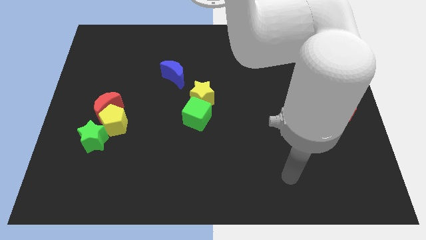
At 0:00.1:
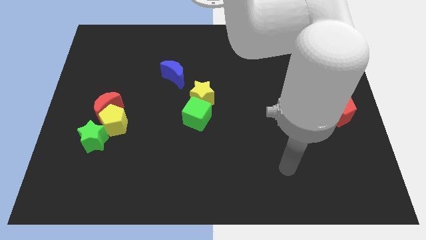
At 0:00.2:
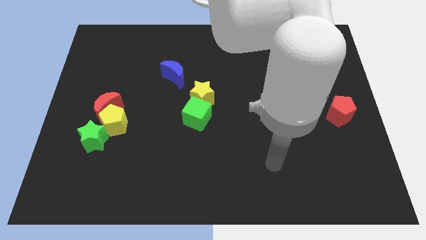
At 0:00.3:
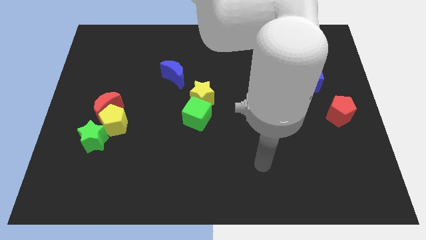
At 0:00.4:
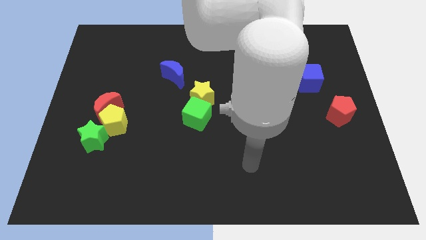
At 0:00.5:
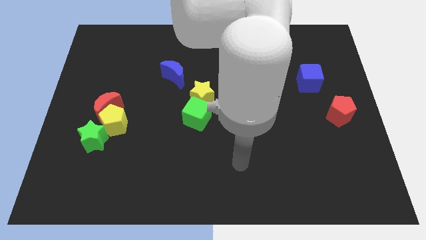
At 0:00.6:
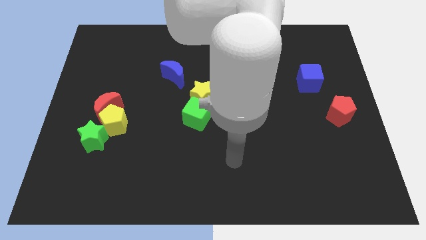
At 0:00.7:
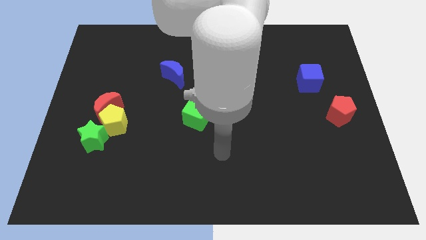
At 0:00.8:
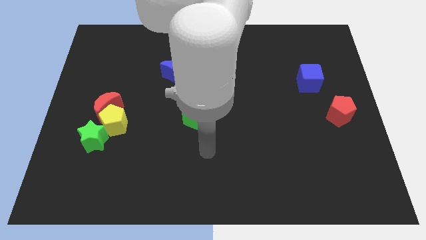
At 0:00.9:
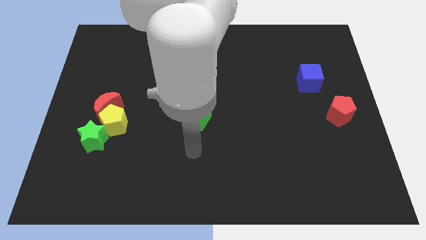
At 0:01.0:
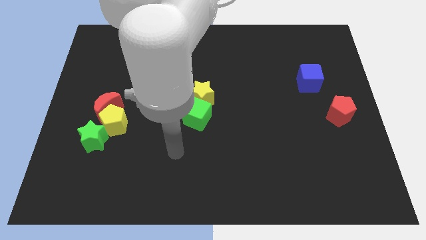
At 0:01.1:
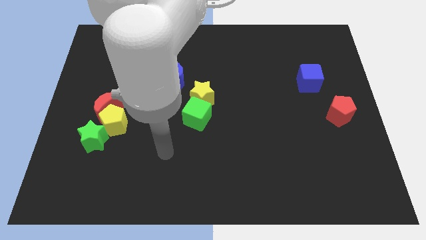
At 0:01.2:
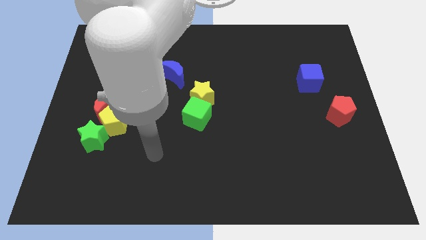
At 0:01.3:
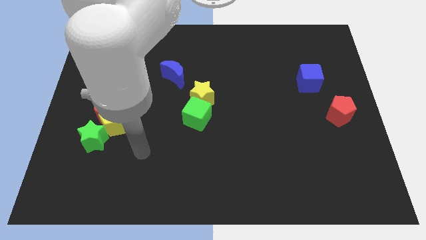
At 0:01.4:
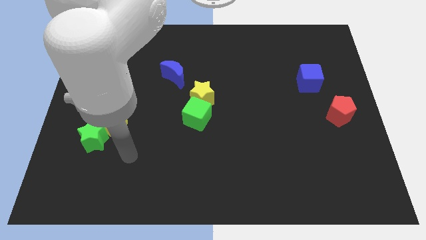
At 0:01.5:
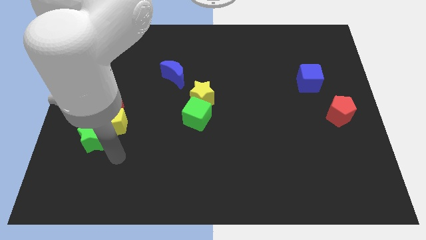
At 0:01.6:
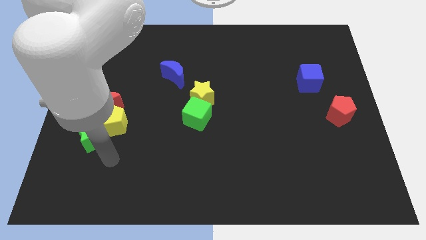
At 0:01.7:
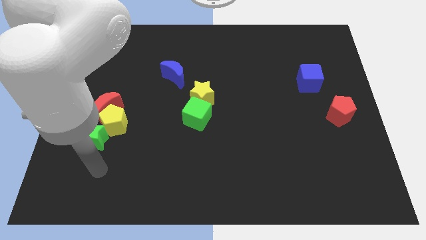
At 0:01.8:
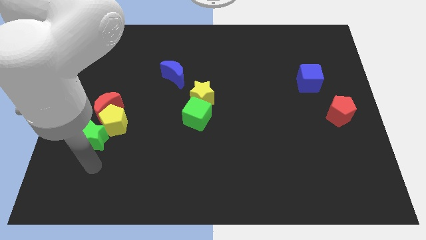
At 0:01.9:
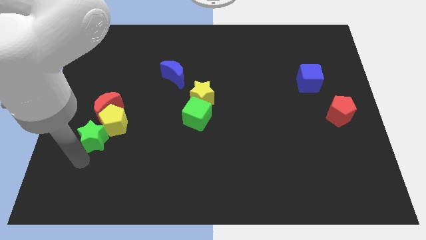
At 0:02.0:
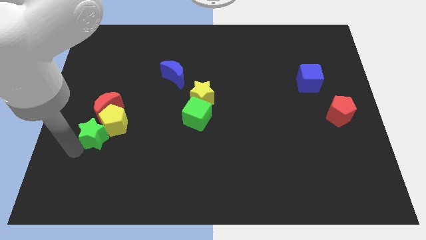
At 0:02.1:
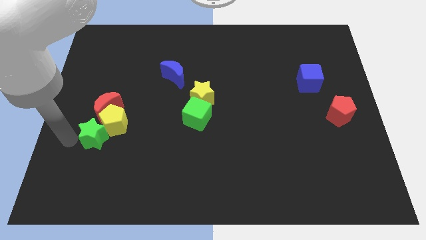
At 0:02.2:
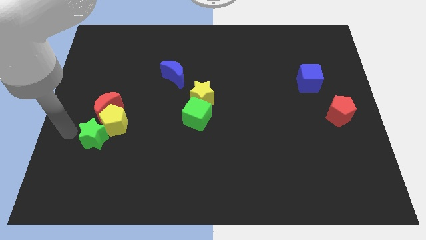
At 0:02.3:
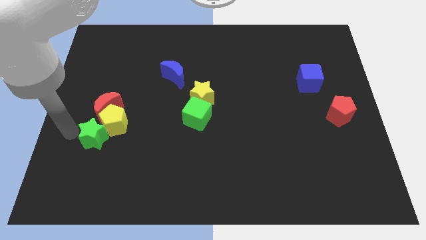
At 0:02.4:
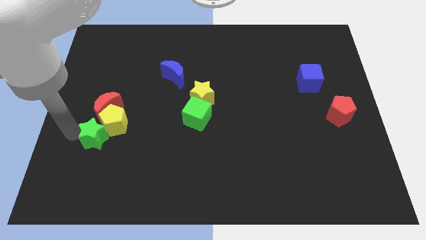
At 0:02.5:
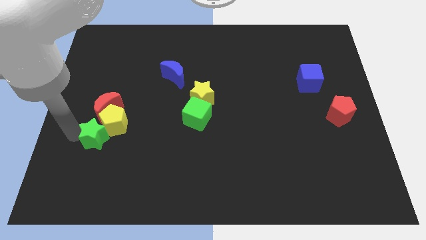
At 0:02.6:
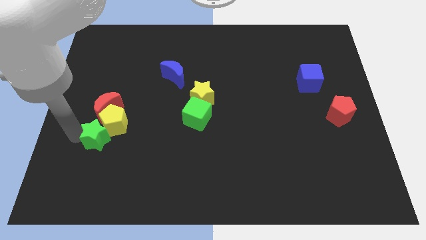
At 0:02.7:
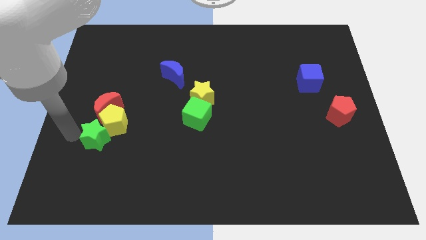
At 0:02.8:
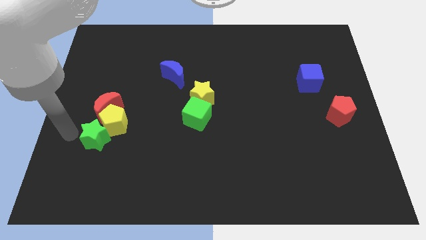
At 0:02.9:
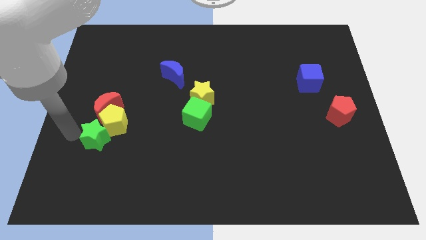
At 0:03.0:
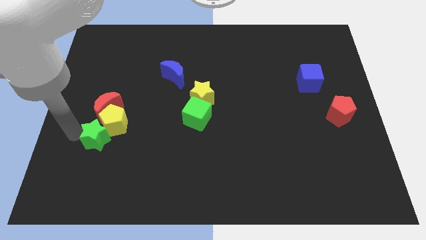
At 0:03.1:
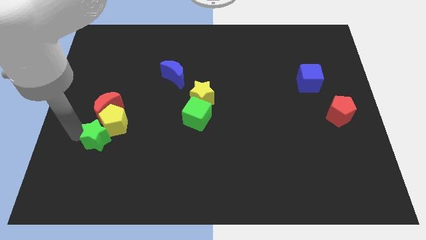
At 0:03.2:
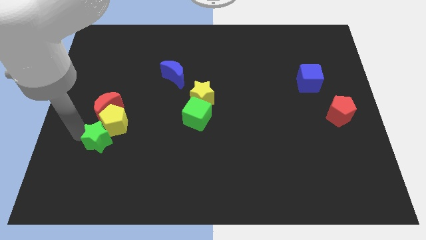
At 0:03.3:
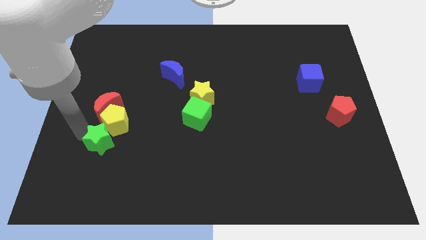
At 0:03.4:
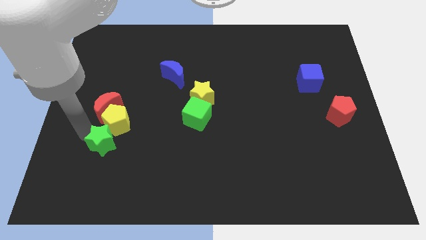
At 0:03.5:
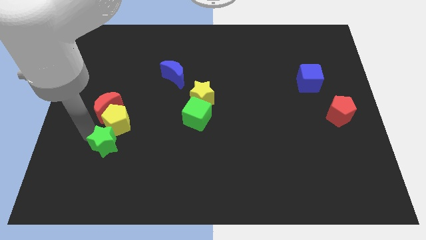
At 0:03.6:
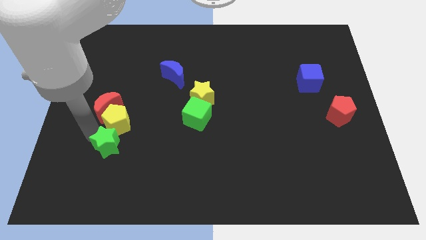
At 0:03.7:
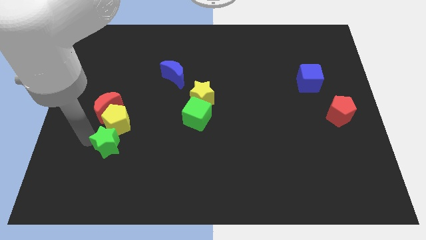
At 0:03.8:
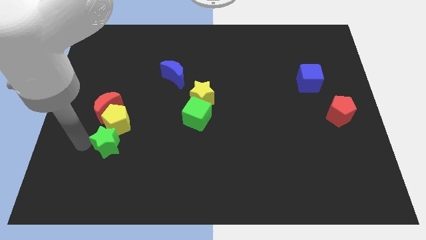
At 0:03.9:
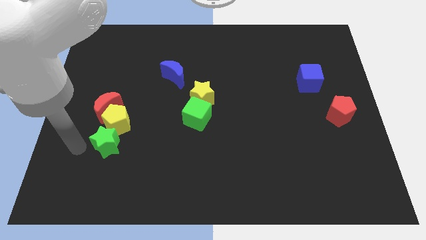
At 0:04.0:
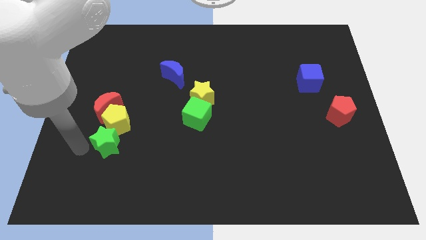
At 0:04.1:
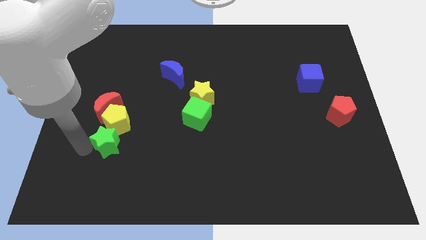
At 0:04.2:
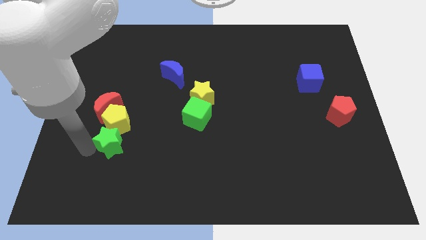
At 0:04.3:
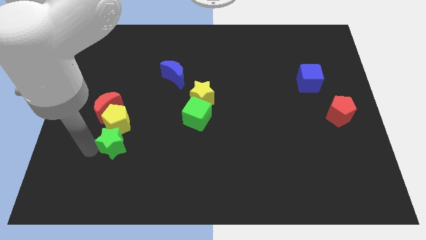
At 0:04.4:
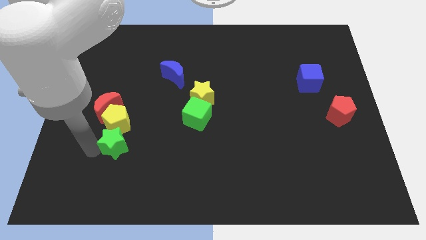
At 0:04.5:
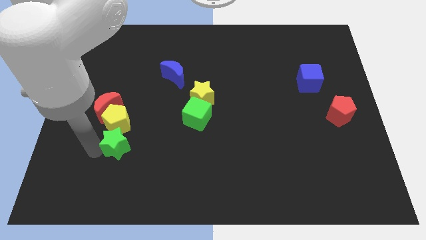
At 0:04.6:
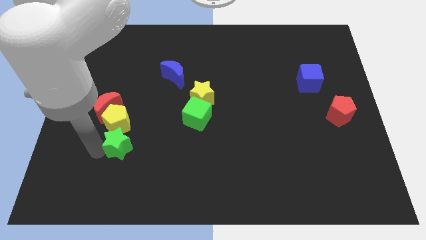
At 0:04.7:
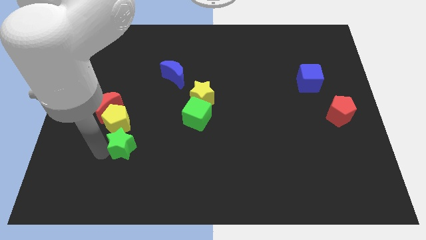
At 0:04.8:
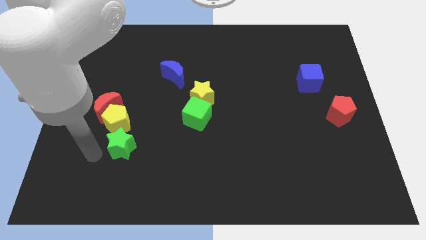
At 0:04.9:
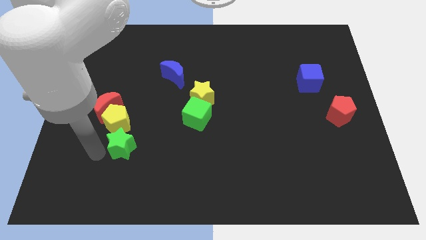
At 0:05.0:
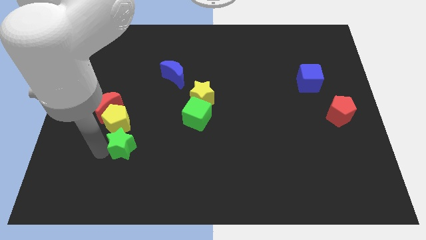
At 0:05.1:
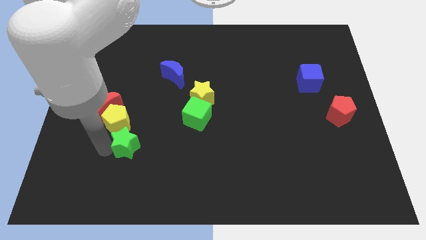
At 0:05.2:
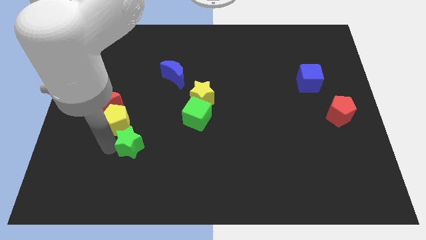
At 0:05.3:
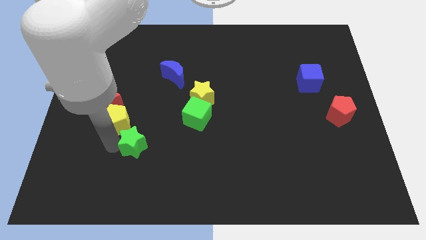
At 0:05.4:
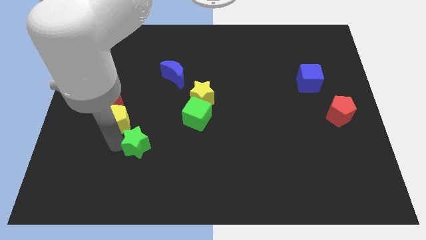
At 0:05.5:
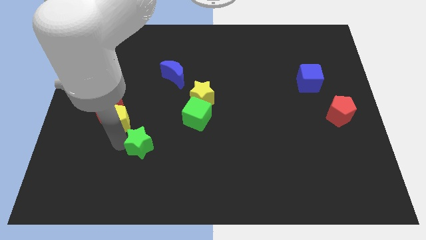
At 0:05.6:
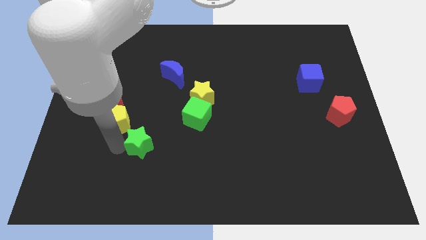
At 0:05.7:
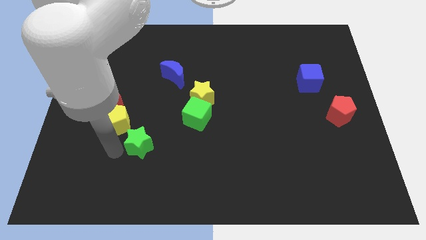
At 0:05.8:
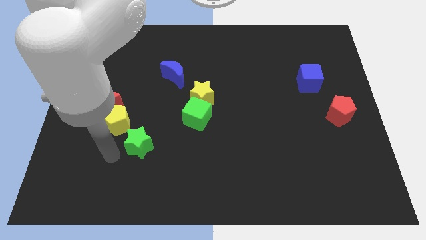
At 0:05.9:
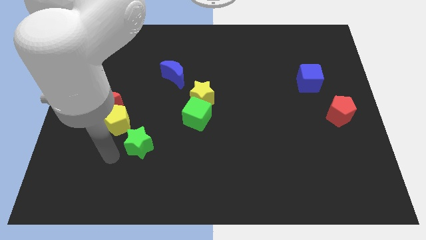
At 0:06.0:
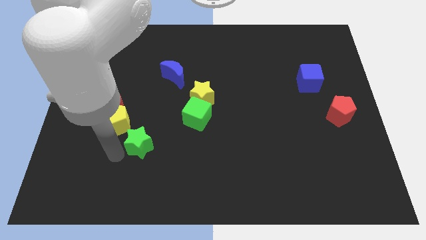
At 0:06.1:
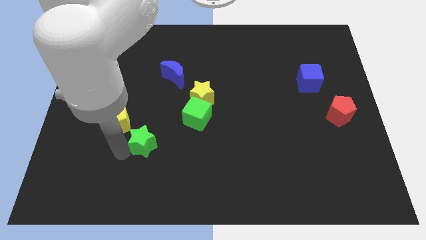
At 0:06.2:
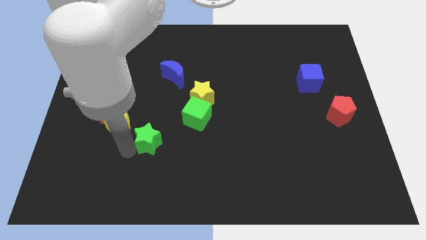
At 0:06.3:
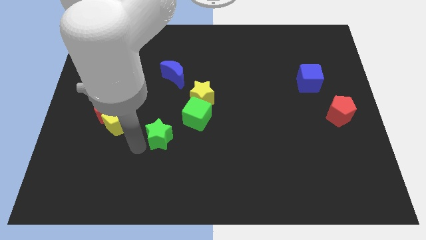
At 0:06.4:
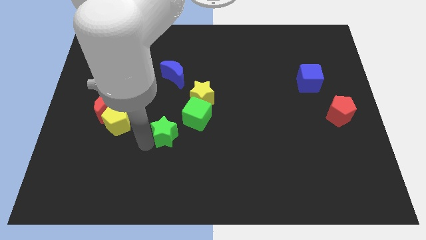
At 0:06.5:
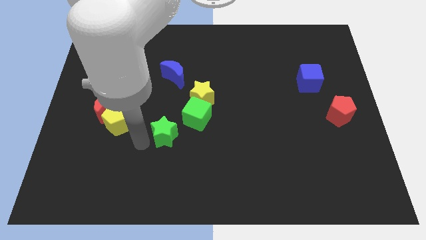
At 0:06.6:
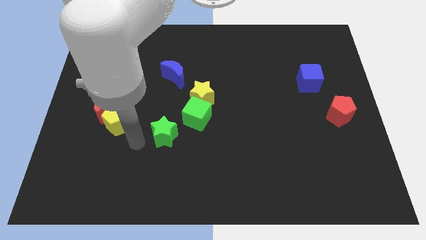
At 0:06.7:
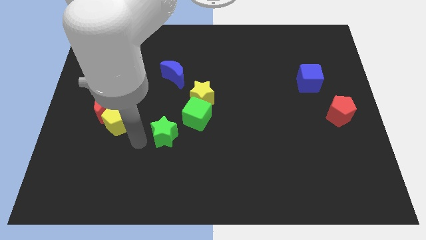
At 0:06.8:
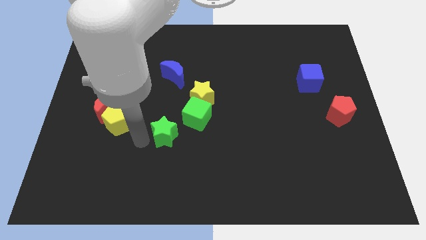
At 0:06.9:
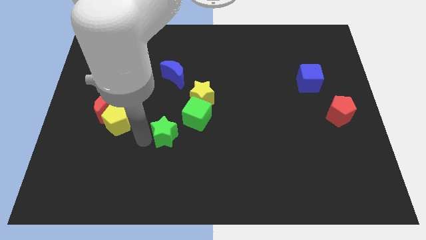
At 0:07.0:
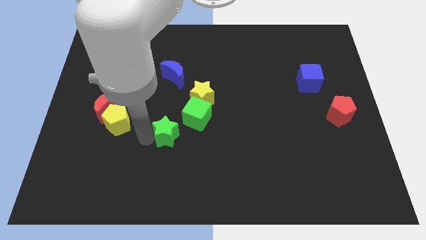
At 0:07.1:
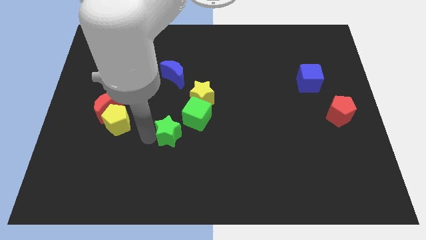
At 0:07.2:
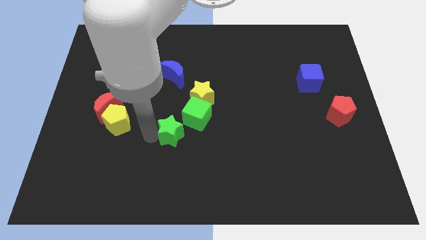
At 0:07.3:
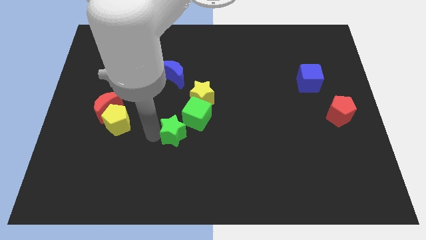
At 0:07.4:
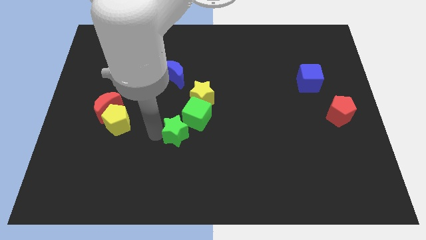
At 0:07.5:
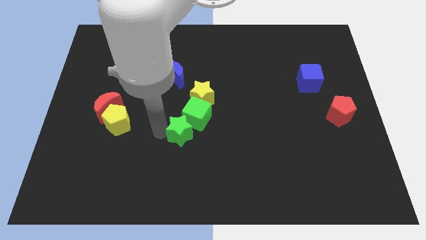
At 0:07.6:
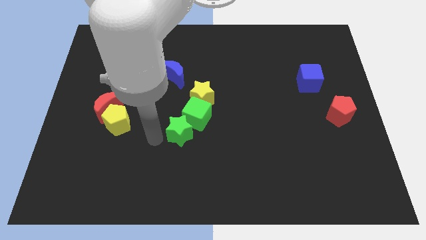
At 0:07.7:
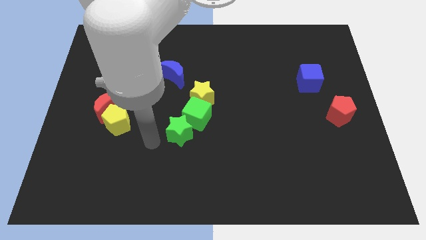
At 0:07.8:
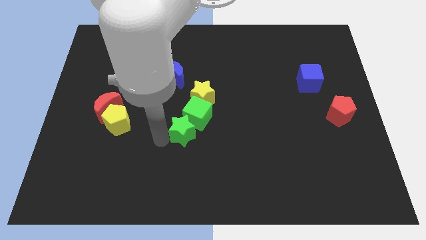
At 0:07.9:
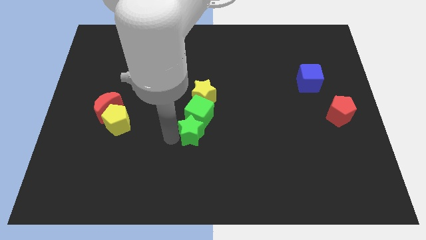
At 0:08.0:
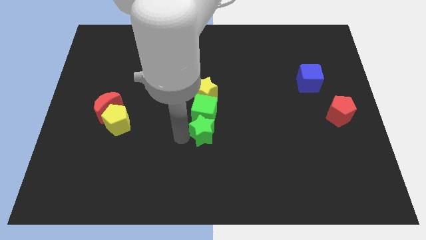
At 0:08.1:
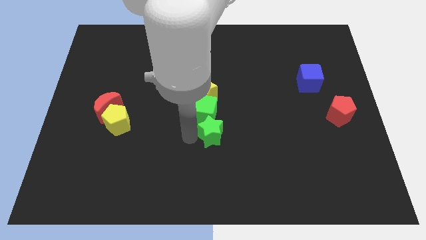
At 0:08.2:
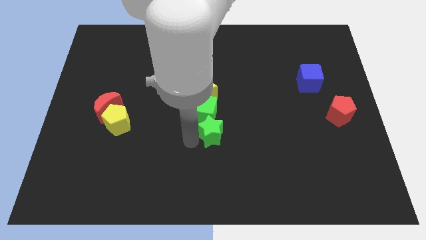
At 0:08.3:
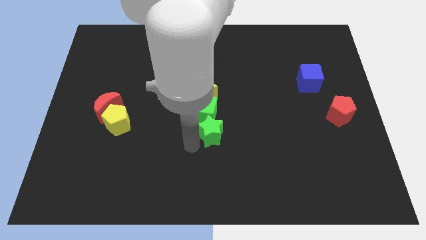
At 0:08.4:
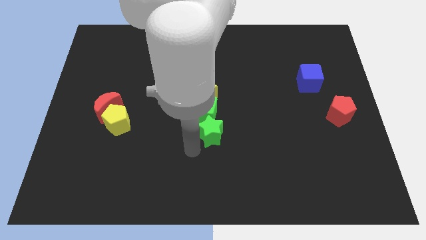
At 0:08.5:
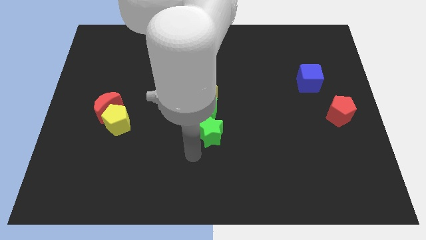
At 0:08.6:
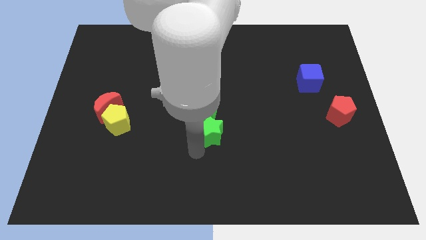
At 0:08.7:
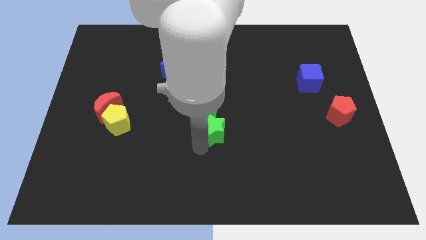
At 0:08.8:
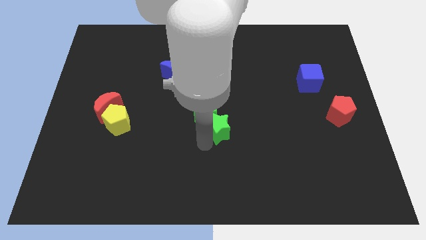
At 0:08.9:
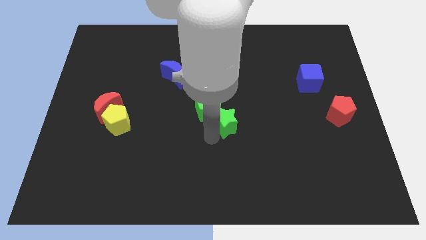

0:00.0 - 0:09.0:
slide the green star right of the green cube
